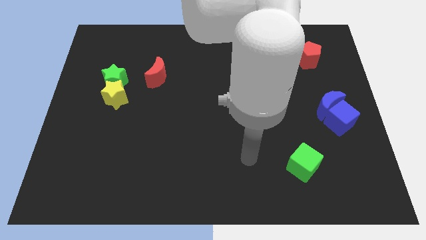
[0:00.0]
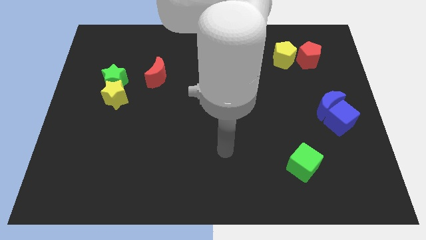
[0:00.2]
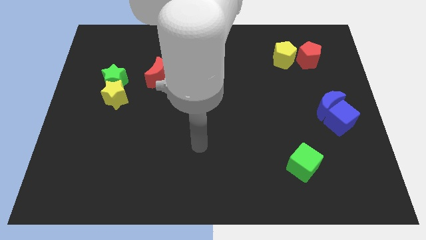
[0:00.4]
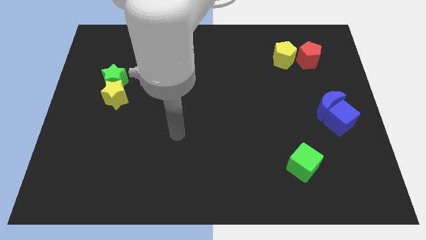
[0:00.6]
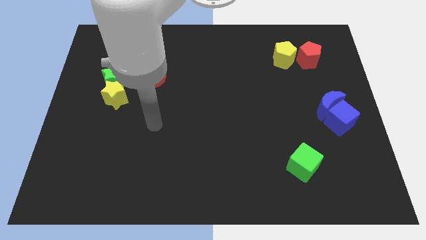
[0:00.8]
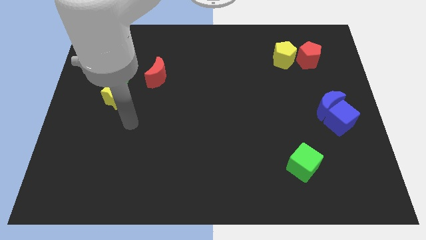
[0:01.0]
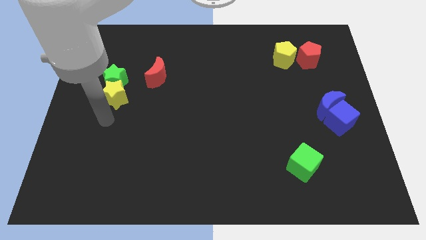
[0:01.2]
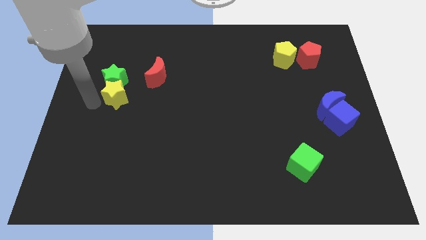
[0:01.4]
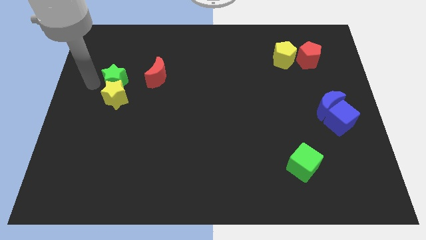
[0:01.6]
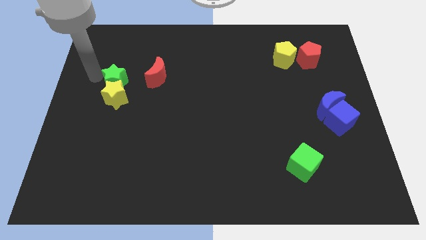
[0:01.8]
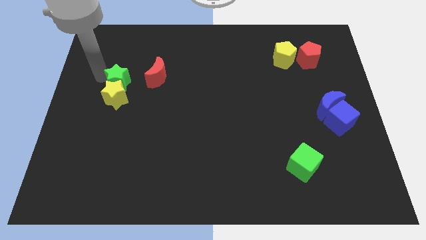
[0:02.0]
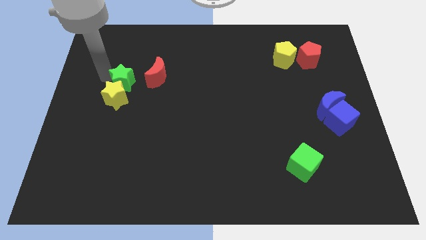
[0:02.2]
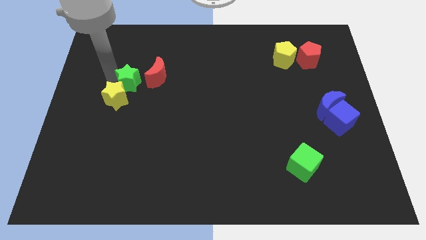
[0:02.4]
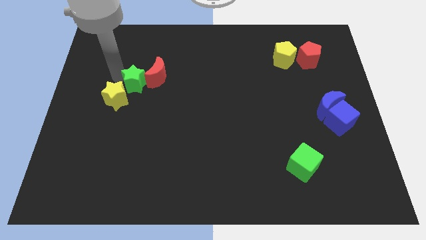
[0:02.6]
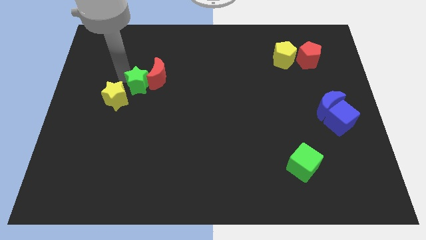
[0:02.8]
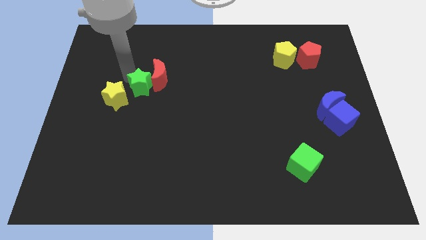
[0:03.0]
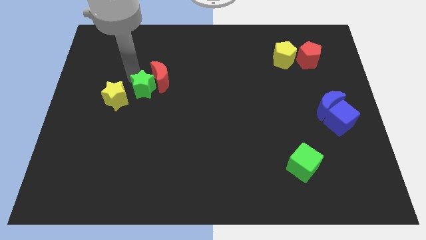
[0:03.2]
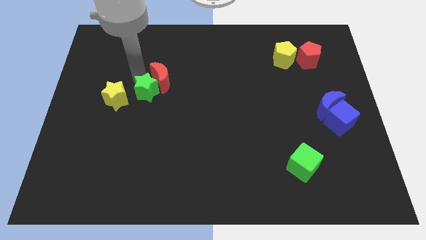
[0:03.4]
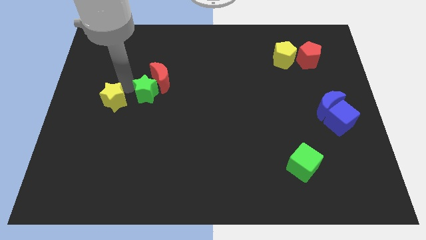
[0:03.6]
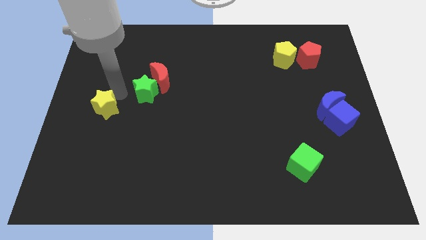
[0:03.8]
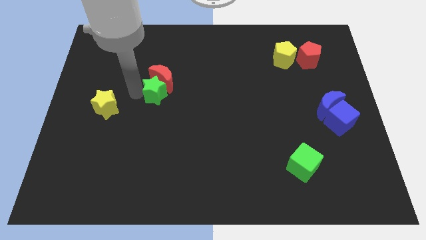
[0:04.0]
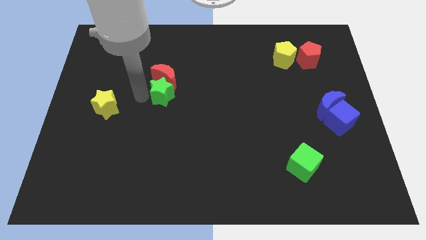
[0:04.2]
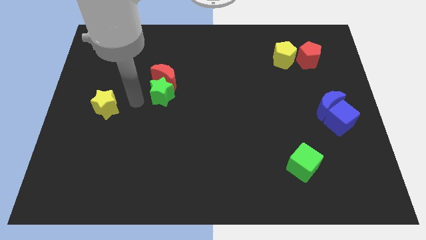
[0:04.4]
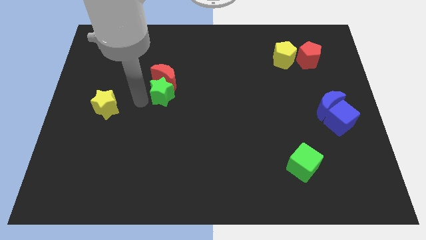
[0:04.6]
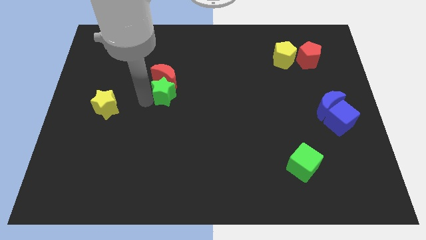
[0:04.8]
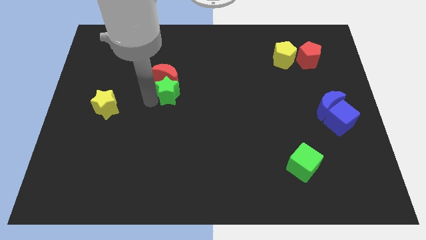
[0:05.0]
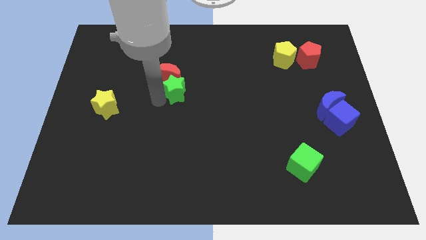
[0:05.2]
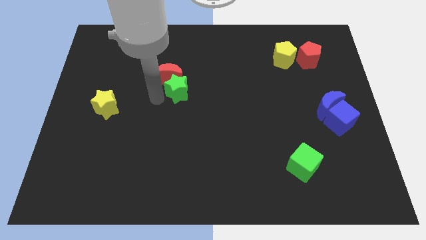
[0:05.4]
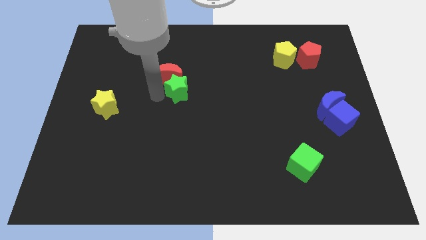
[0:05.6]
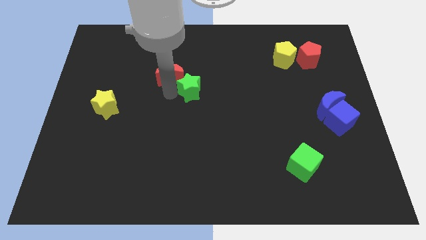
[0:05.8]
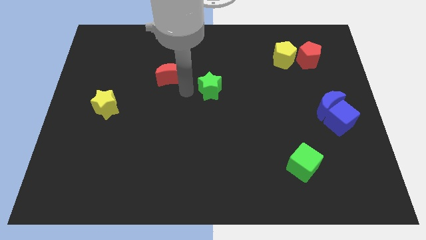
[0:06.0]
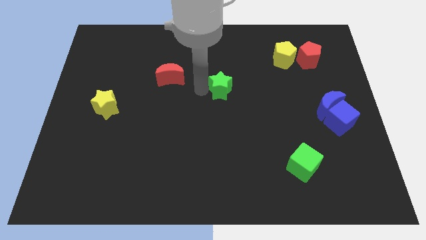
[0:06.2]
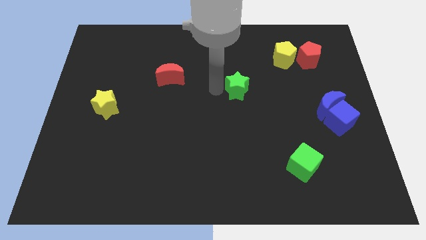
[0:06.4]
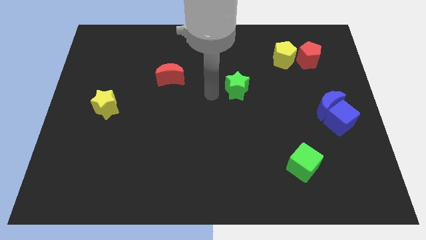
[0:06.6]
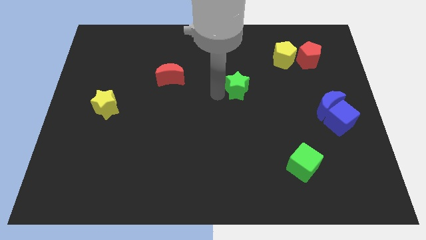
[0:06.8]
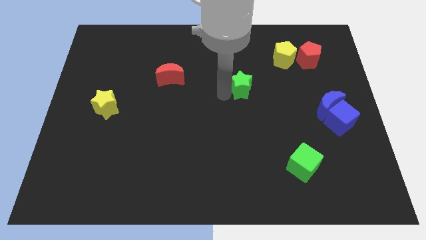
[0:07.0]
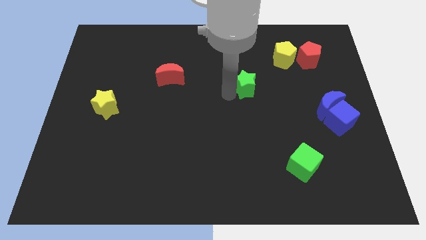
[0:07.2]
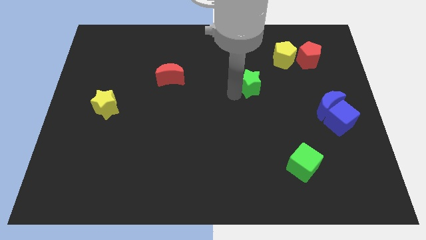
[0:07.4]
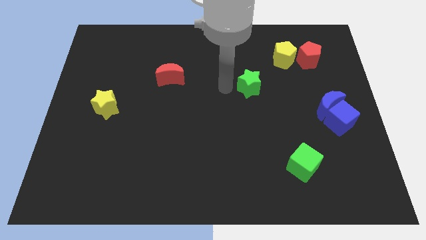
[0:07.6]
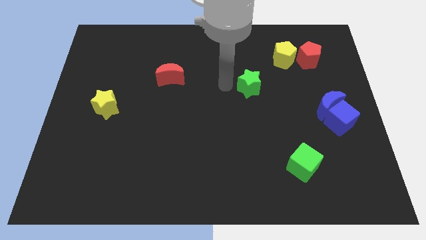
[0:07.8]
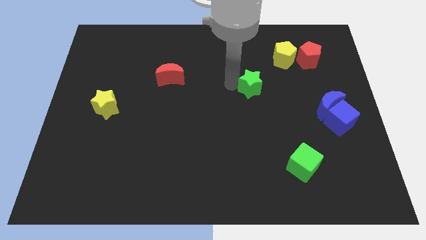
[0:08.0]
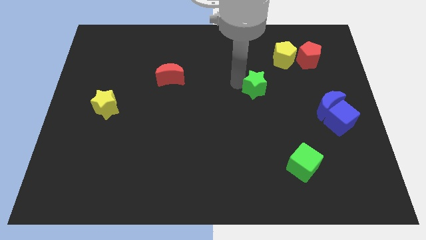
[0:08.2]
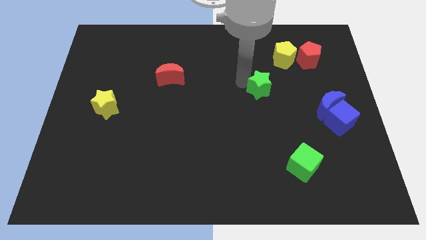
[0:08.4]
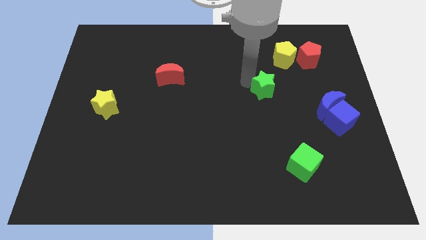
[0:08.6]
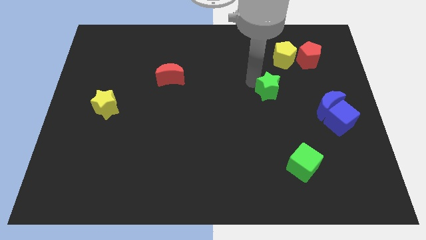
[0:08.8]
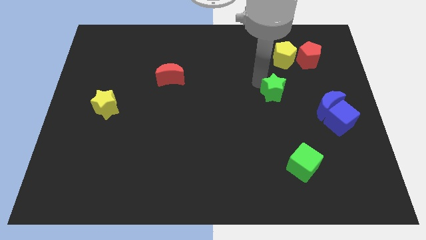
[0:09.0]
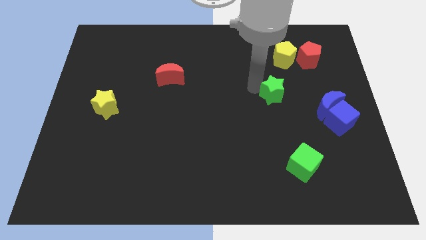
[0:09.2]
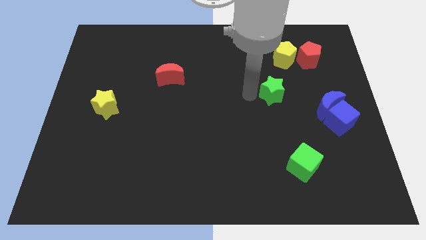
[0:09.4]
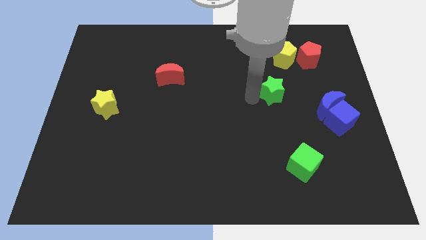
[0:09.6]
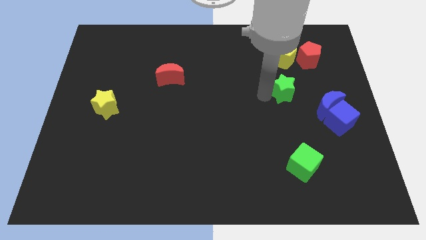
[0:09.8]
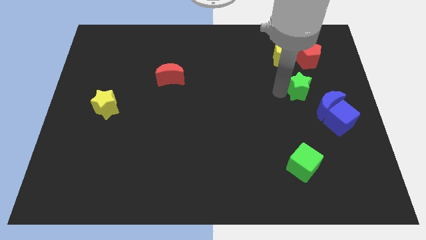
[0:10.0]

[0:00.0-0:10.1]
put the green star to the bottom side of the red pentagon

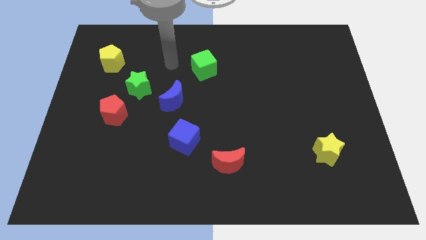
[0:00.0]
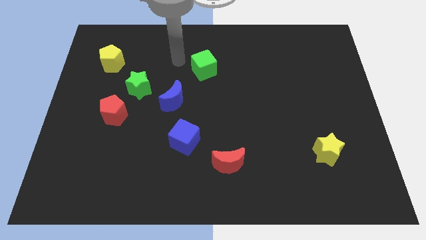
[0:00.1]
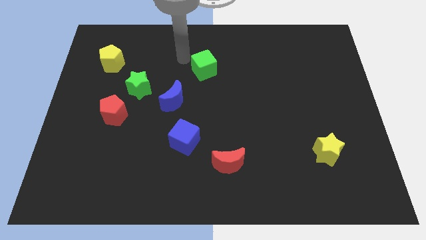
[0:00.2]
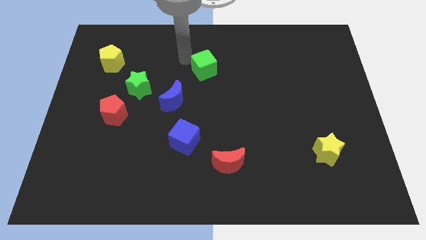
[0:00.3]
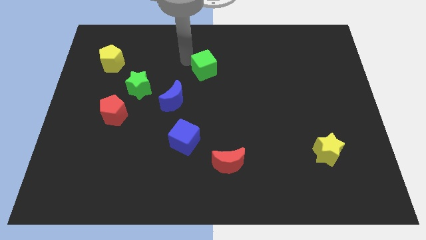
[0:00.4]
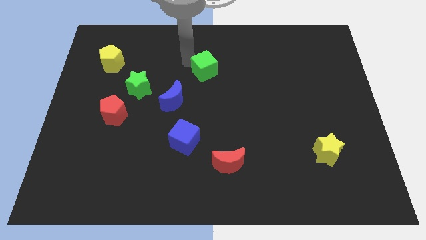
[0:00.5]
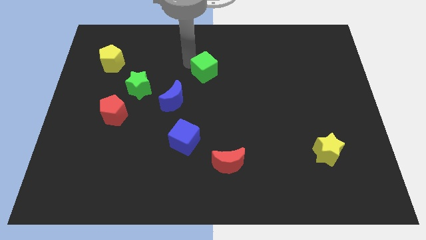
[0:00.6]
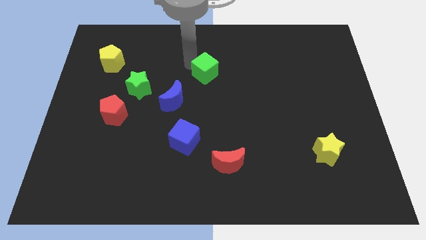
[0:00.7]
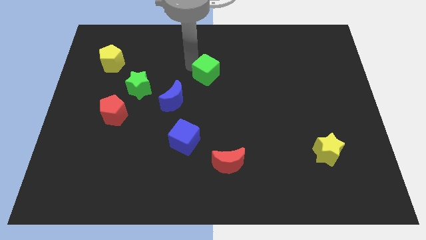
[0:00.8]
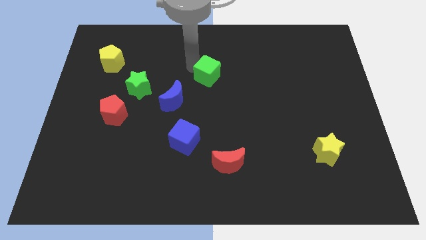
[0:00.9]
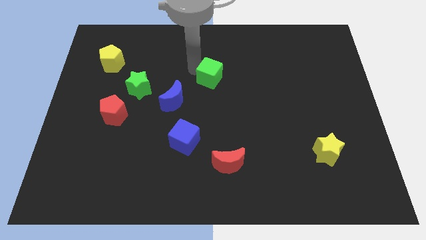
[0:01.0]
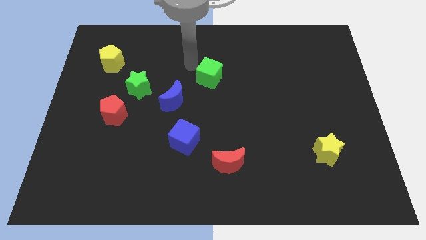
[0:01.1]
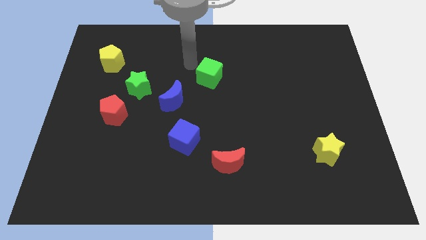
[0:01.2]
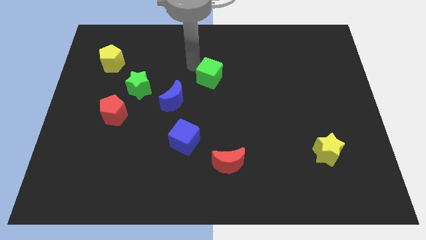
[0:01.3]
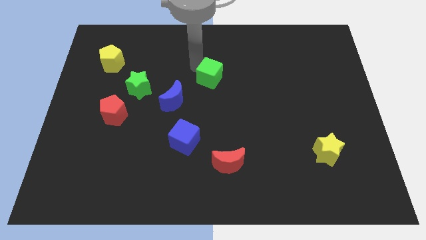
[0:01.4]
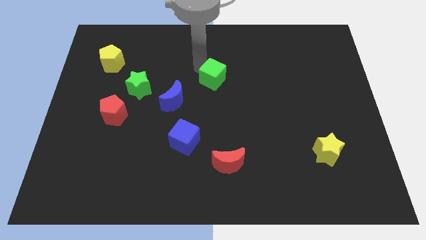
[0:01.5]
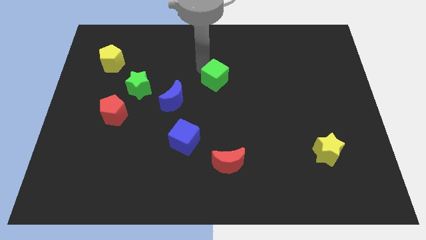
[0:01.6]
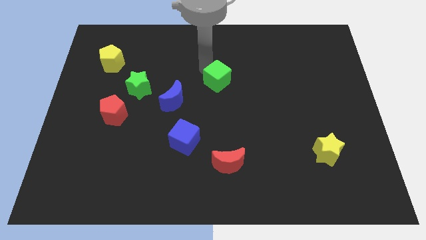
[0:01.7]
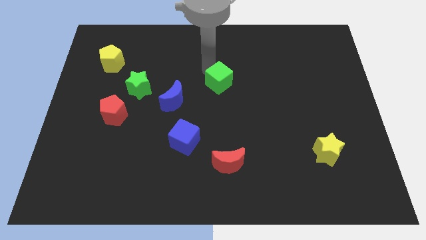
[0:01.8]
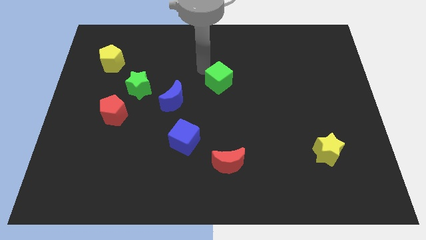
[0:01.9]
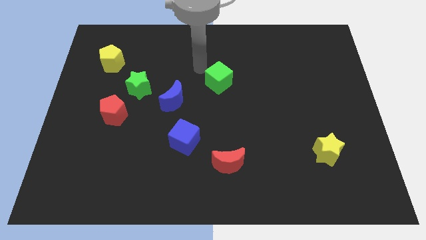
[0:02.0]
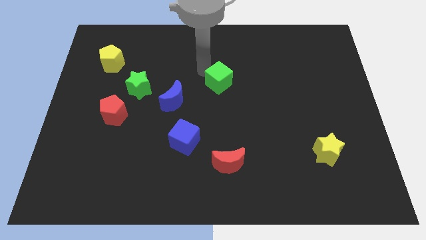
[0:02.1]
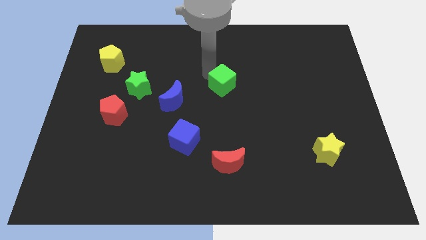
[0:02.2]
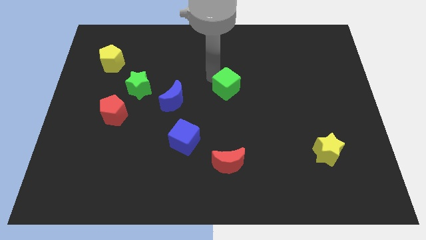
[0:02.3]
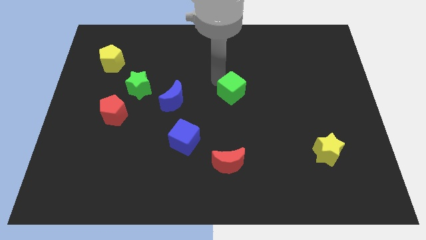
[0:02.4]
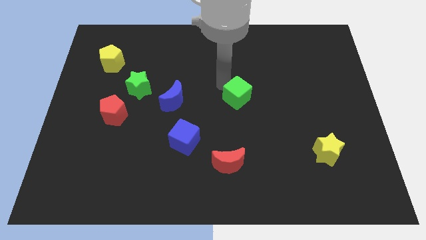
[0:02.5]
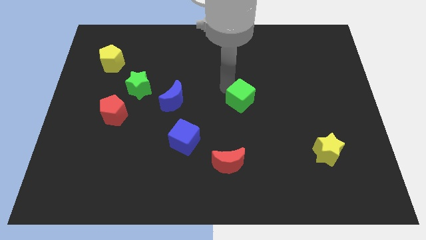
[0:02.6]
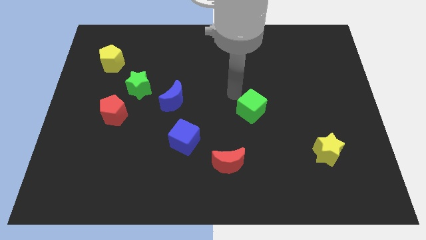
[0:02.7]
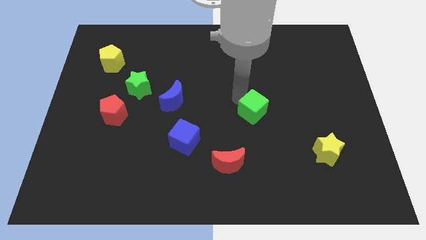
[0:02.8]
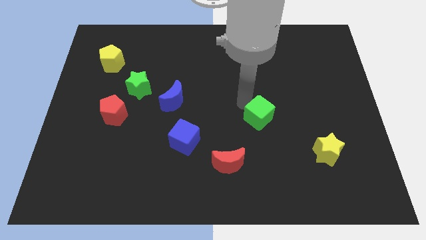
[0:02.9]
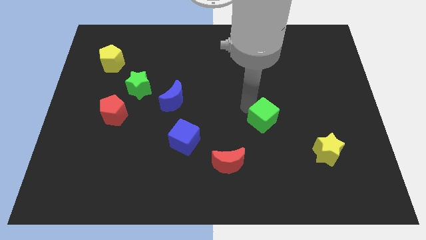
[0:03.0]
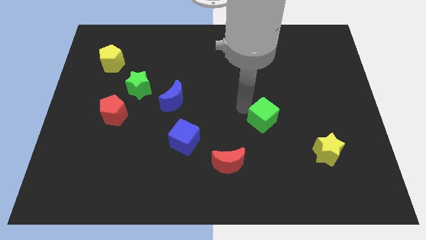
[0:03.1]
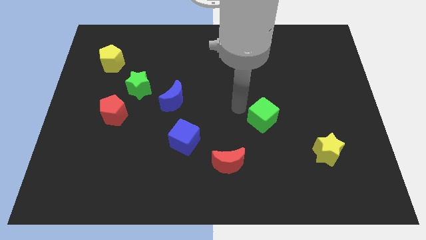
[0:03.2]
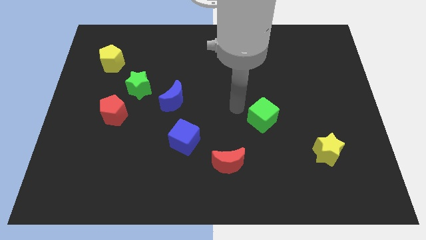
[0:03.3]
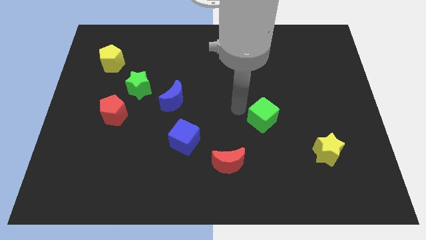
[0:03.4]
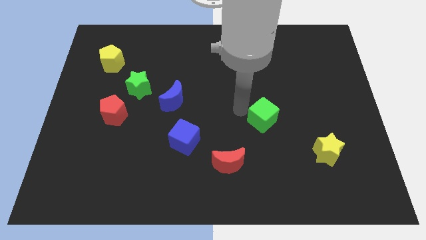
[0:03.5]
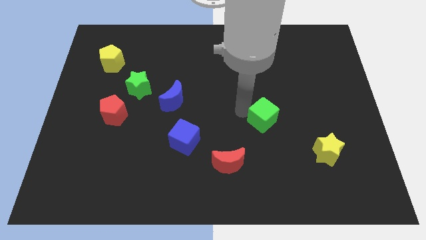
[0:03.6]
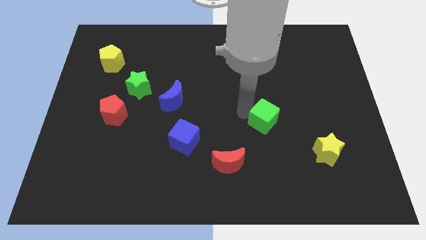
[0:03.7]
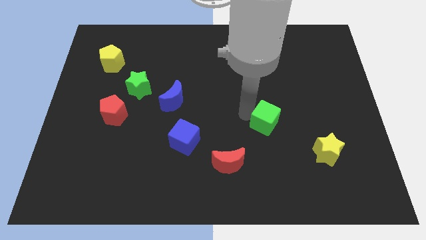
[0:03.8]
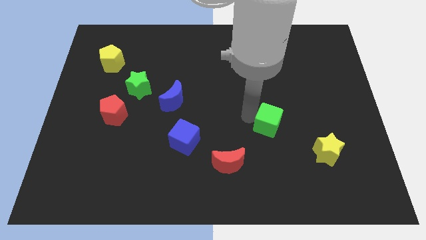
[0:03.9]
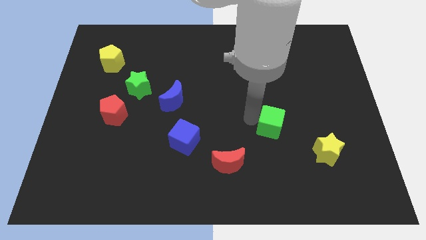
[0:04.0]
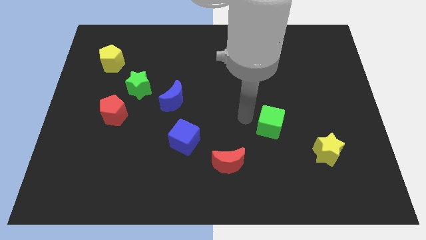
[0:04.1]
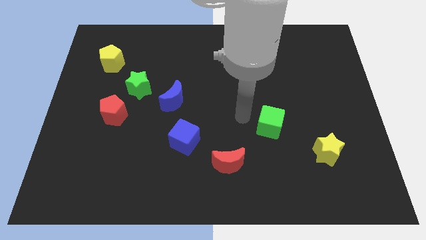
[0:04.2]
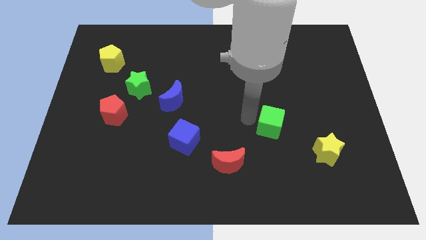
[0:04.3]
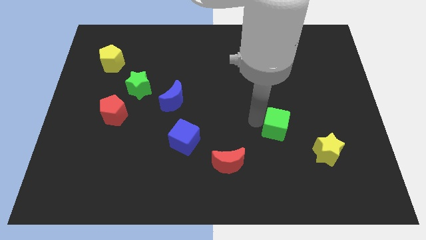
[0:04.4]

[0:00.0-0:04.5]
put the green cube diagonally up and to the left of the yellow star
